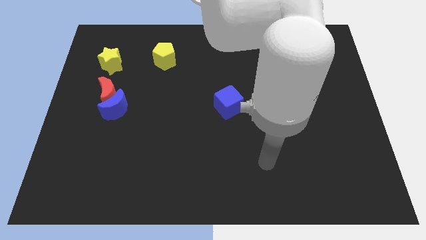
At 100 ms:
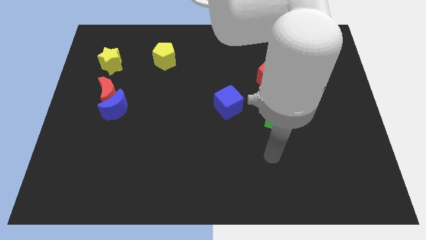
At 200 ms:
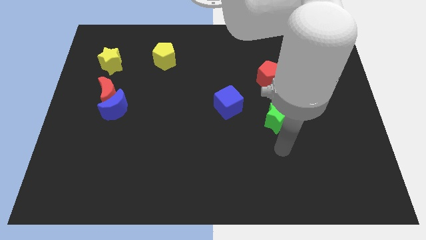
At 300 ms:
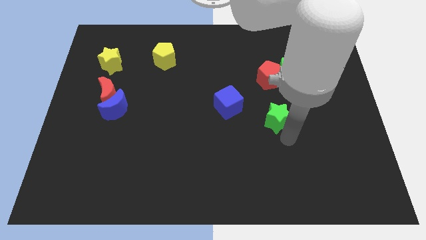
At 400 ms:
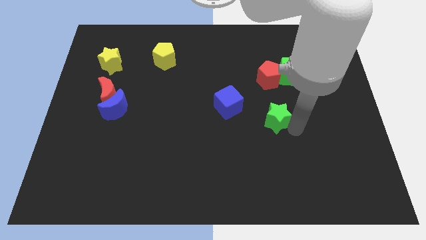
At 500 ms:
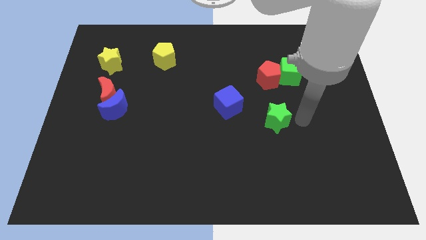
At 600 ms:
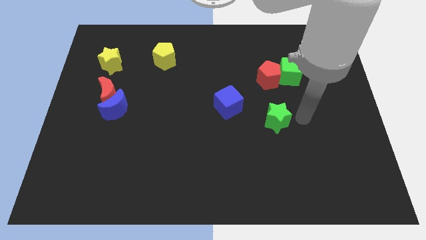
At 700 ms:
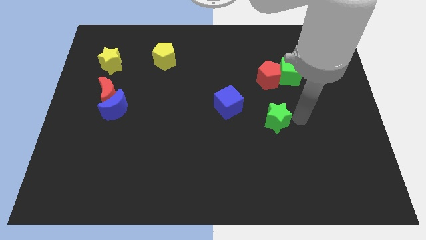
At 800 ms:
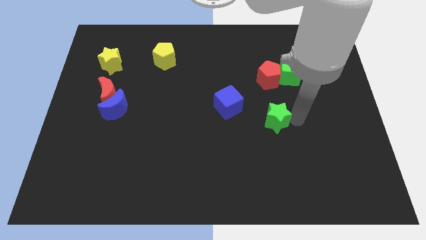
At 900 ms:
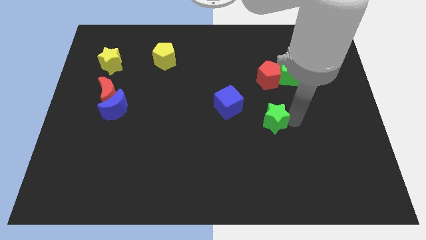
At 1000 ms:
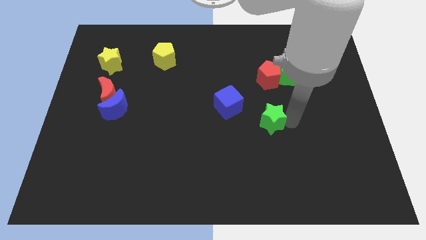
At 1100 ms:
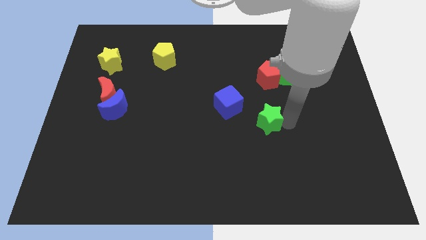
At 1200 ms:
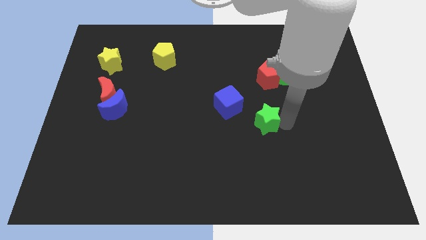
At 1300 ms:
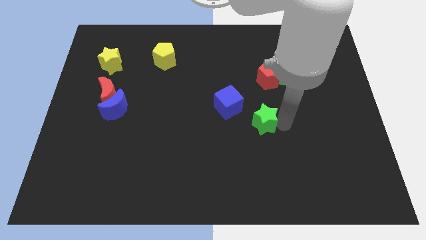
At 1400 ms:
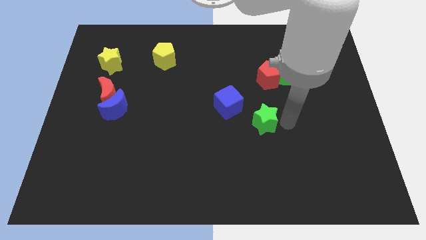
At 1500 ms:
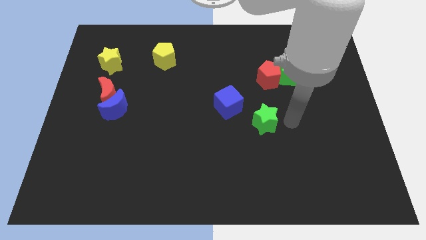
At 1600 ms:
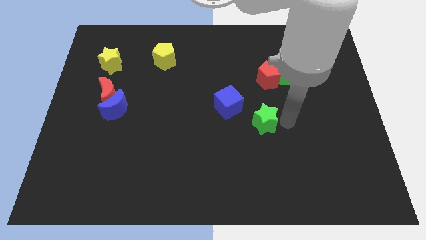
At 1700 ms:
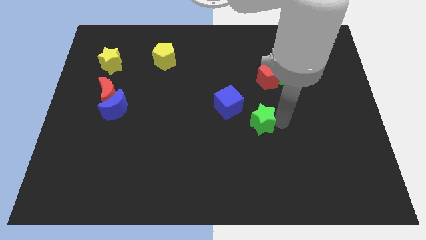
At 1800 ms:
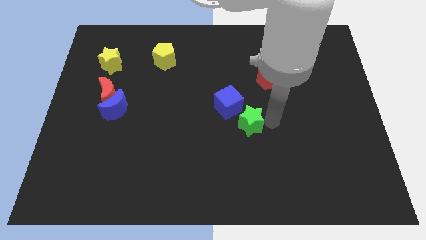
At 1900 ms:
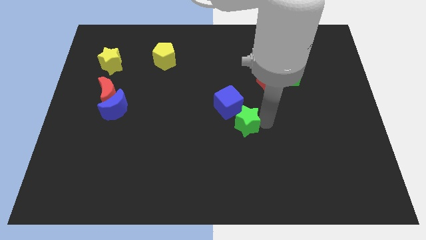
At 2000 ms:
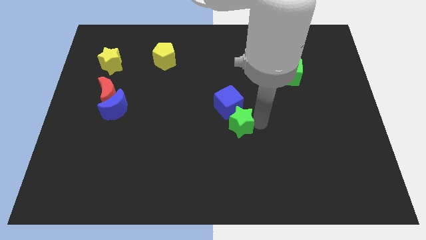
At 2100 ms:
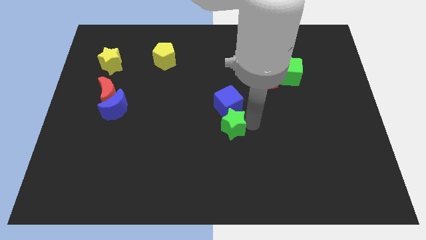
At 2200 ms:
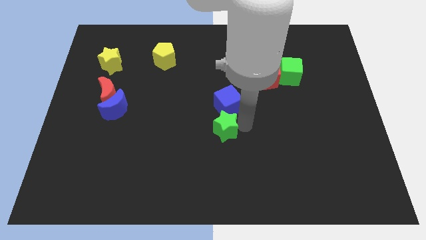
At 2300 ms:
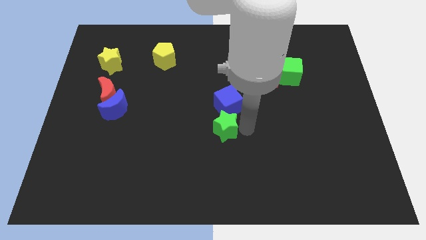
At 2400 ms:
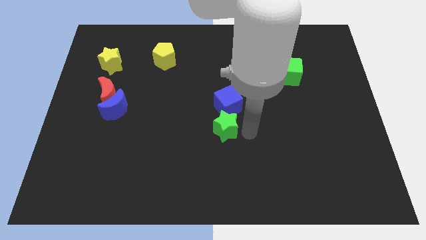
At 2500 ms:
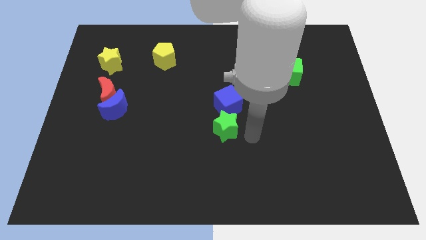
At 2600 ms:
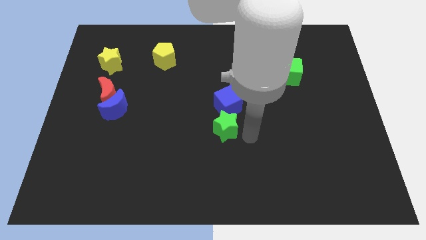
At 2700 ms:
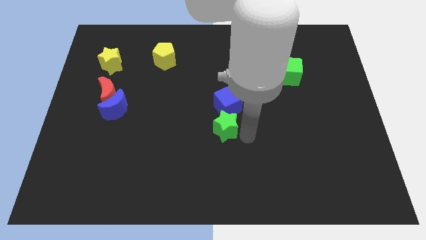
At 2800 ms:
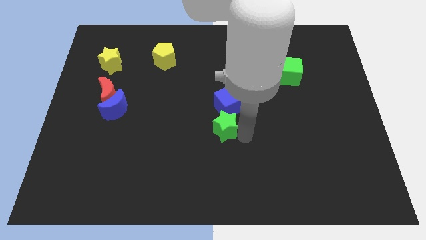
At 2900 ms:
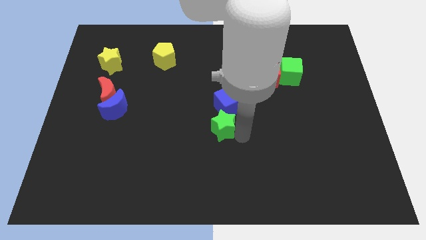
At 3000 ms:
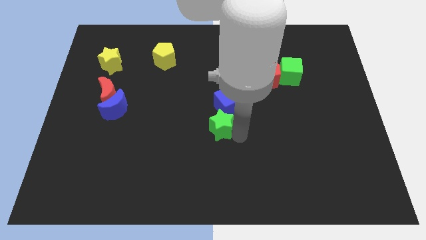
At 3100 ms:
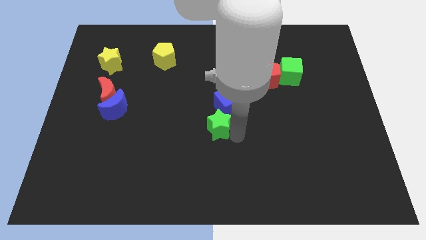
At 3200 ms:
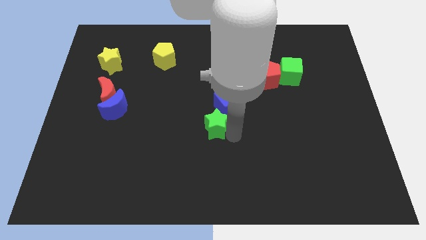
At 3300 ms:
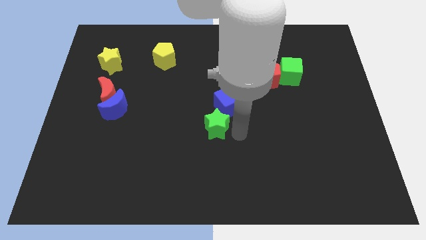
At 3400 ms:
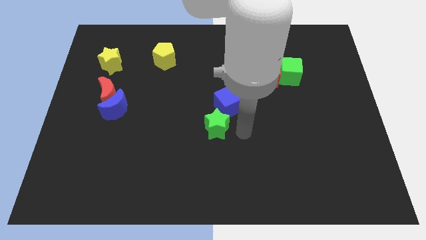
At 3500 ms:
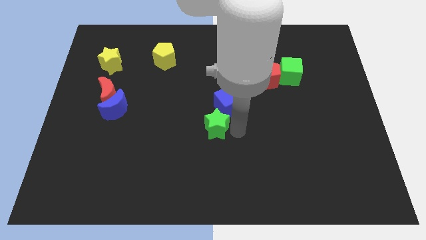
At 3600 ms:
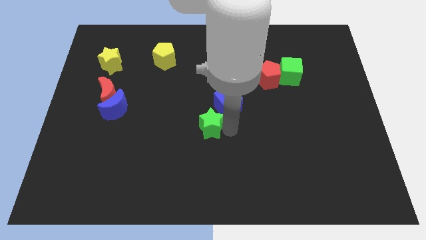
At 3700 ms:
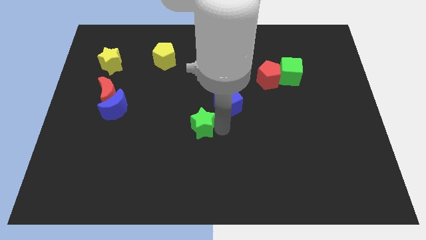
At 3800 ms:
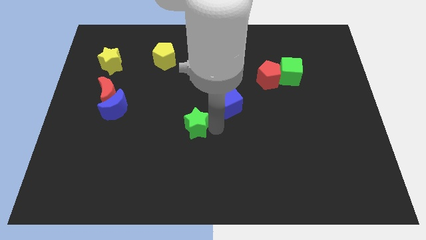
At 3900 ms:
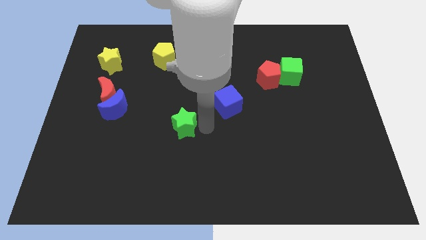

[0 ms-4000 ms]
move the green star to the left

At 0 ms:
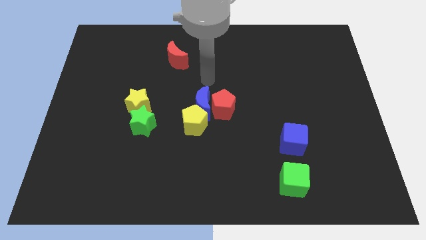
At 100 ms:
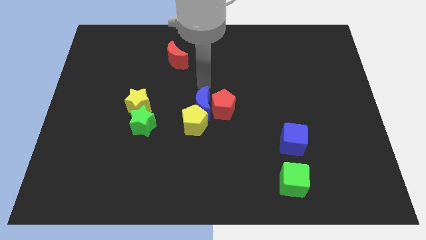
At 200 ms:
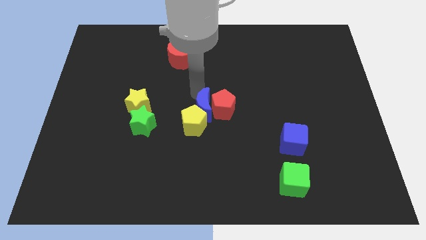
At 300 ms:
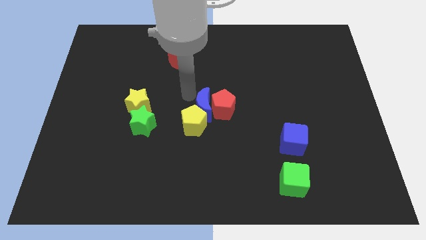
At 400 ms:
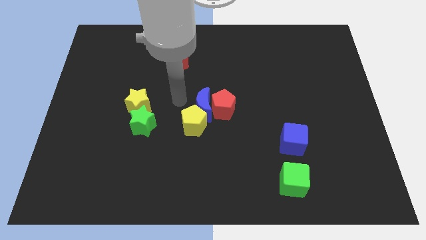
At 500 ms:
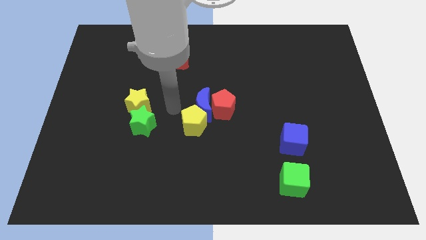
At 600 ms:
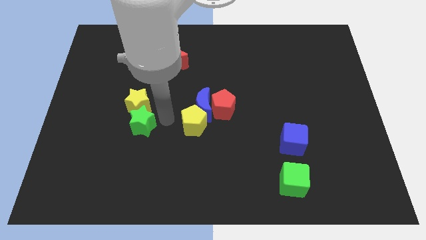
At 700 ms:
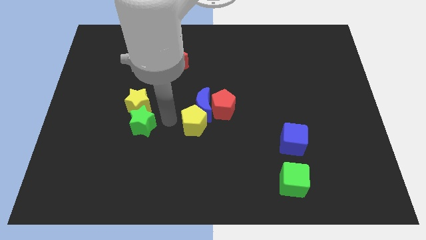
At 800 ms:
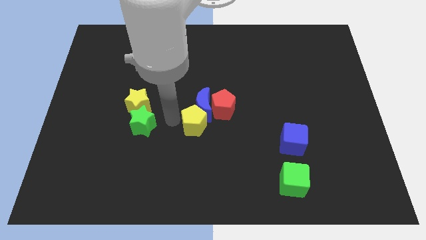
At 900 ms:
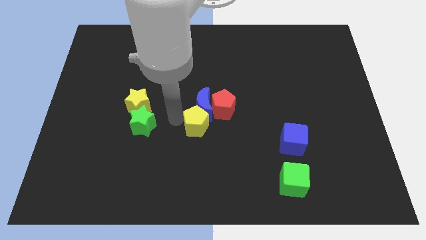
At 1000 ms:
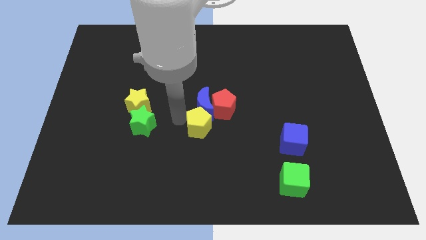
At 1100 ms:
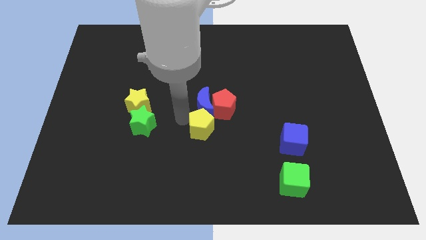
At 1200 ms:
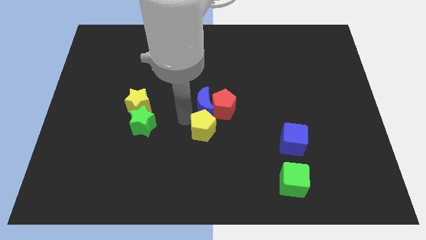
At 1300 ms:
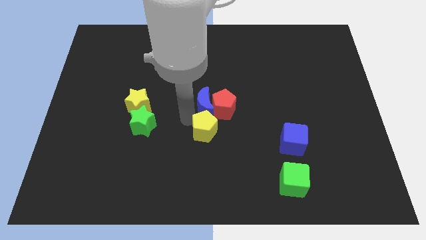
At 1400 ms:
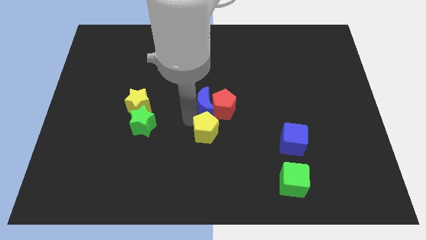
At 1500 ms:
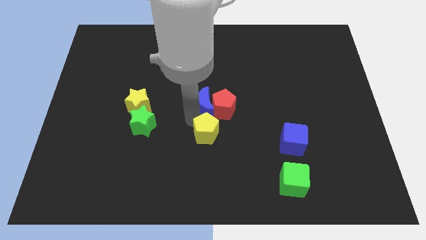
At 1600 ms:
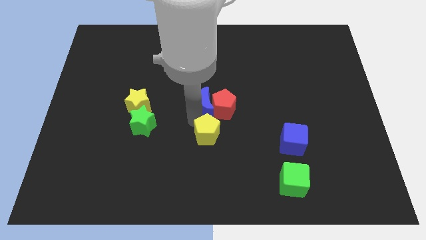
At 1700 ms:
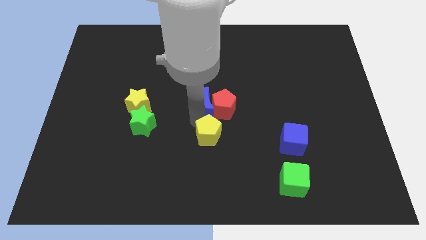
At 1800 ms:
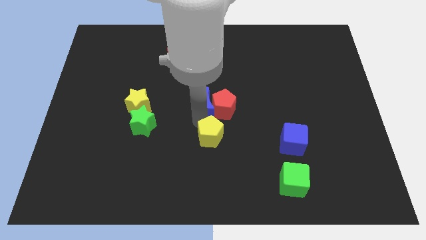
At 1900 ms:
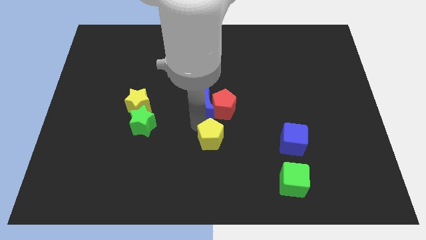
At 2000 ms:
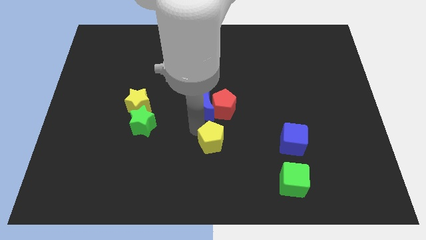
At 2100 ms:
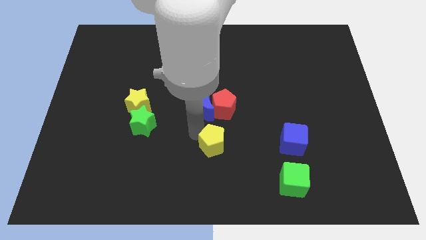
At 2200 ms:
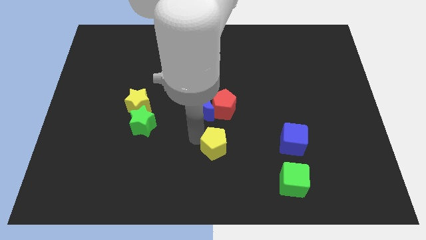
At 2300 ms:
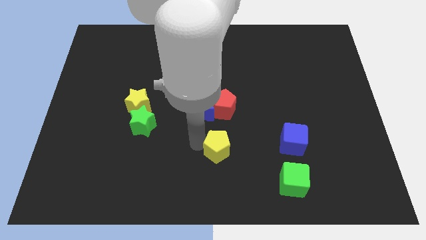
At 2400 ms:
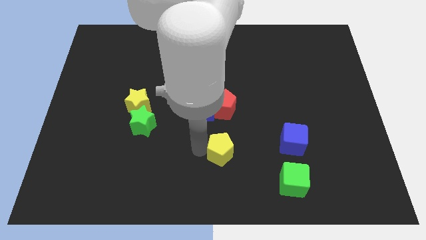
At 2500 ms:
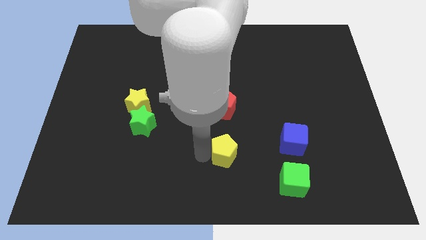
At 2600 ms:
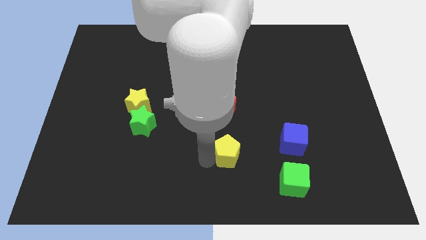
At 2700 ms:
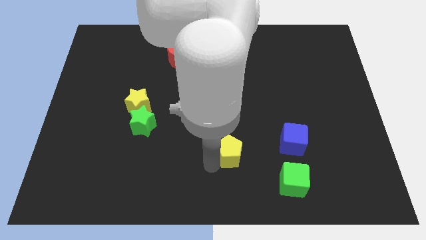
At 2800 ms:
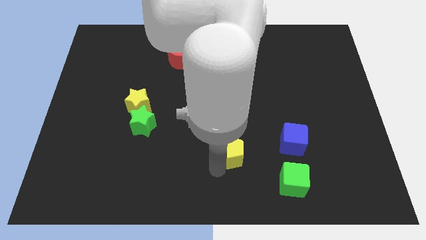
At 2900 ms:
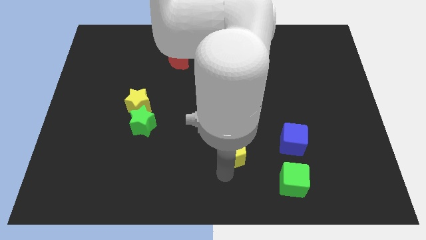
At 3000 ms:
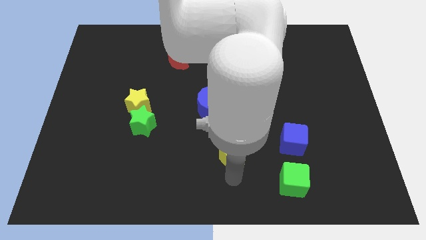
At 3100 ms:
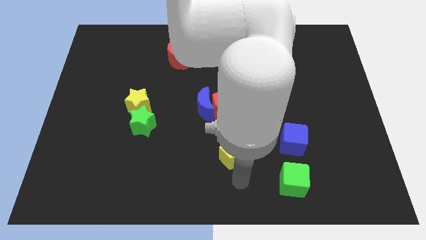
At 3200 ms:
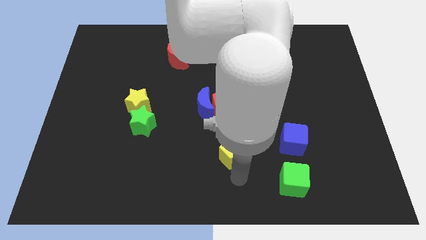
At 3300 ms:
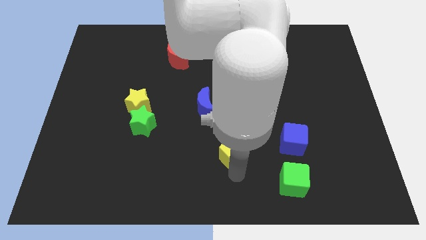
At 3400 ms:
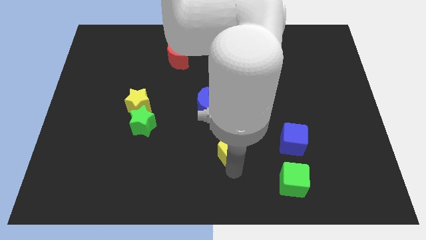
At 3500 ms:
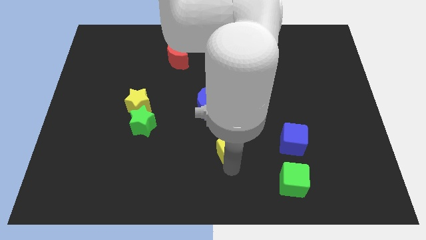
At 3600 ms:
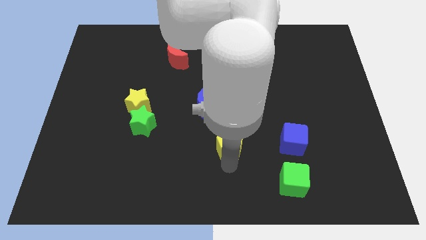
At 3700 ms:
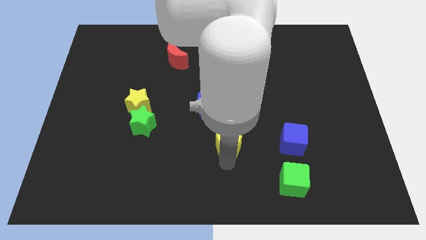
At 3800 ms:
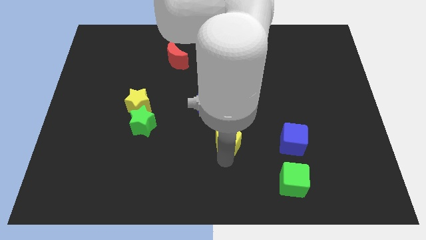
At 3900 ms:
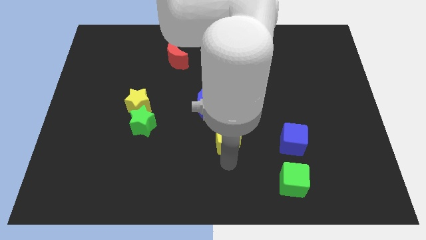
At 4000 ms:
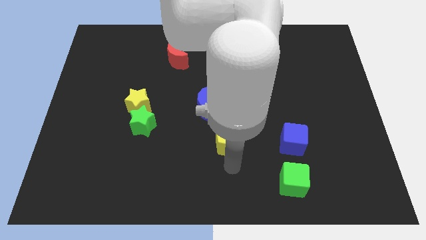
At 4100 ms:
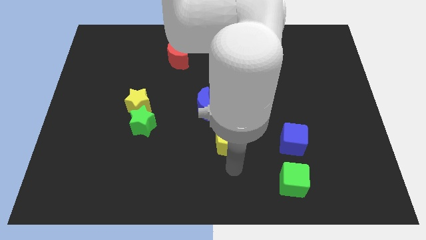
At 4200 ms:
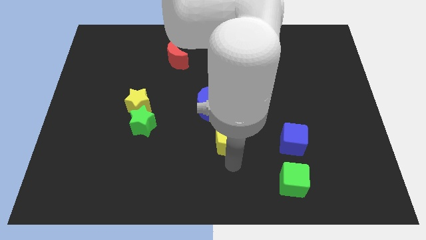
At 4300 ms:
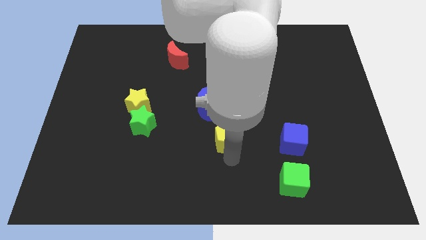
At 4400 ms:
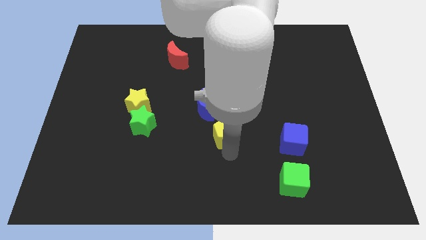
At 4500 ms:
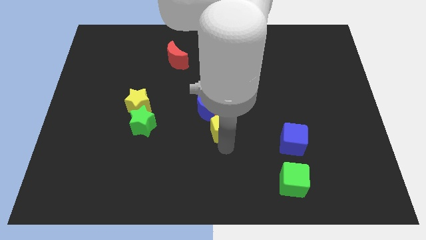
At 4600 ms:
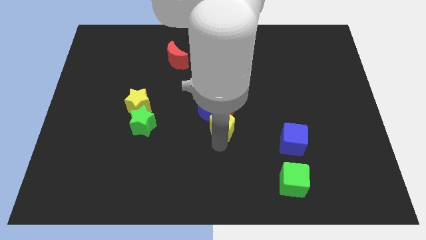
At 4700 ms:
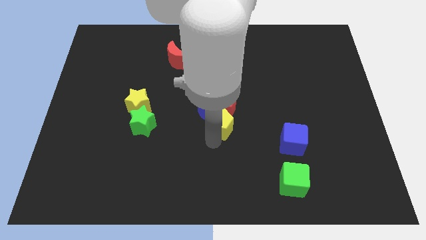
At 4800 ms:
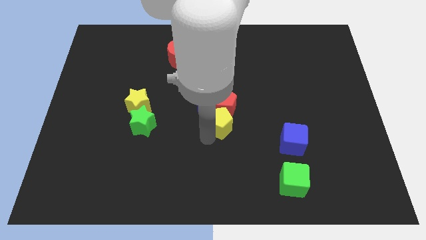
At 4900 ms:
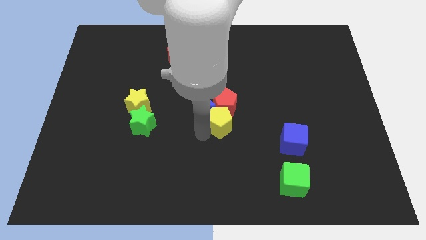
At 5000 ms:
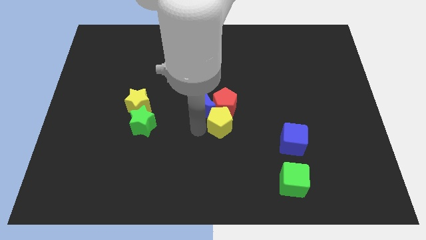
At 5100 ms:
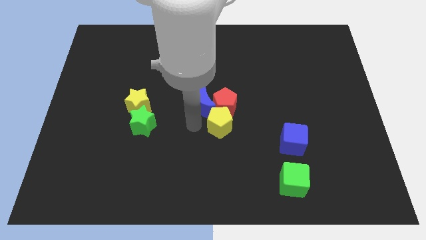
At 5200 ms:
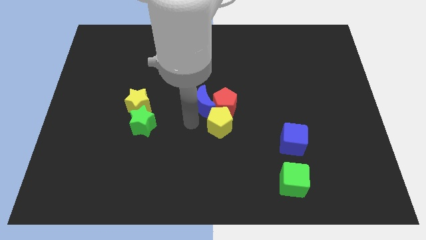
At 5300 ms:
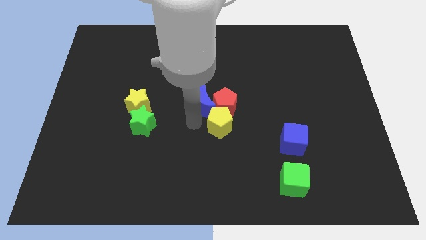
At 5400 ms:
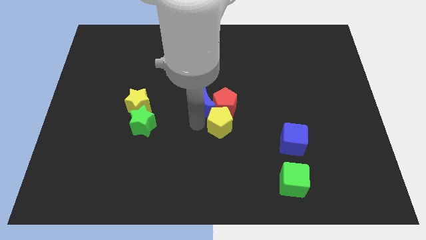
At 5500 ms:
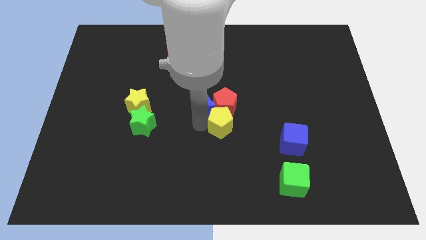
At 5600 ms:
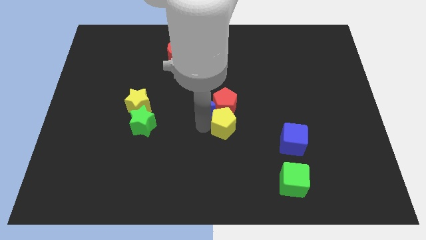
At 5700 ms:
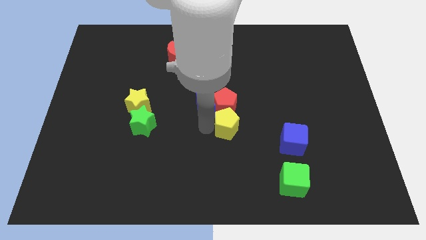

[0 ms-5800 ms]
slightly slide the yellow pentagon right
